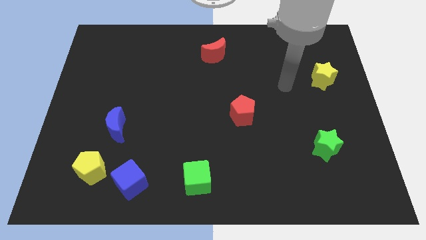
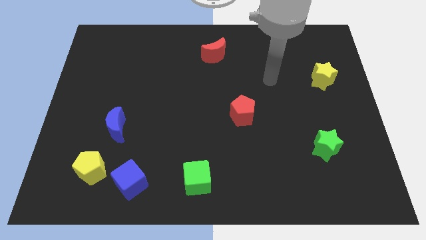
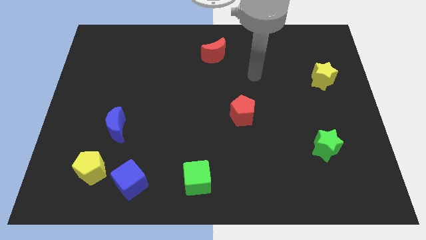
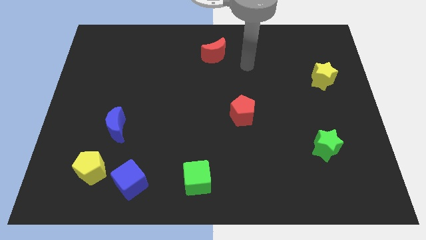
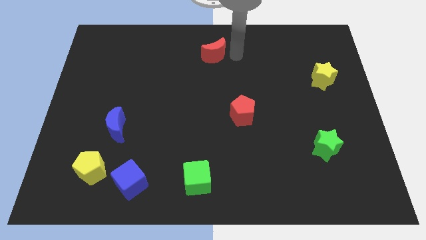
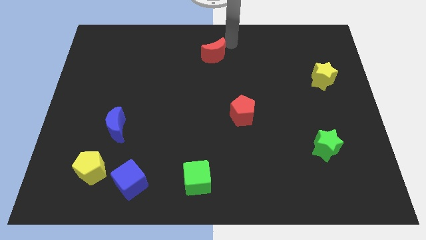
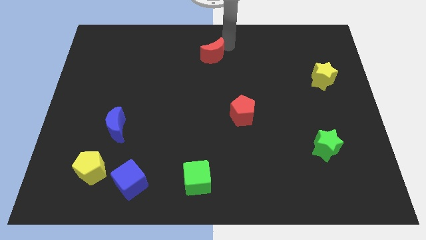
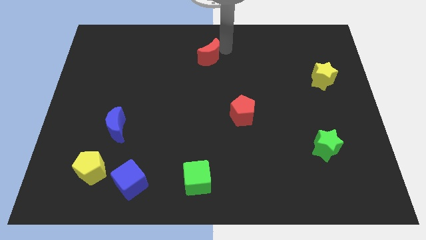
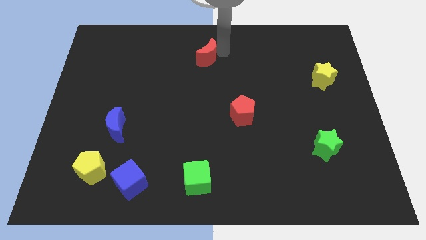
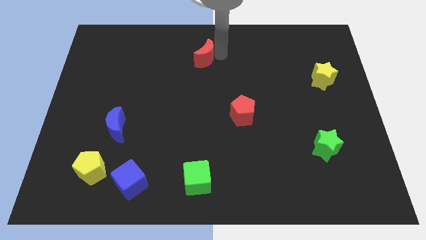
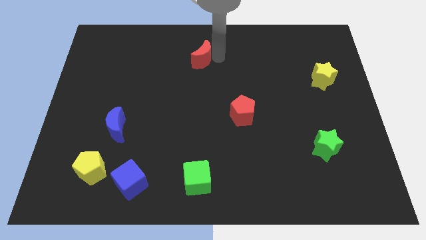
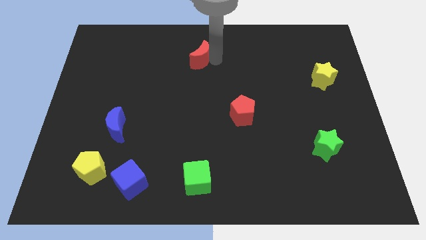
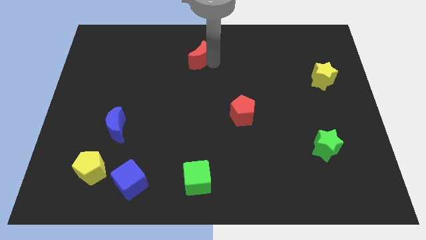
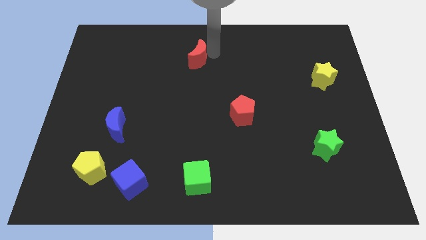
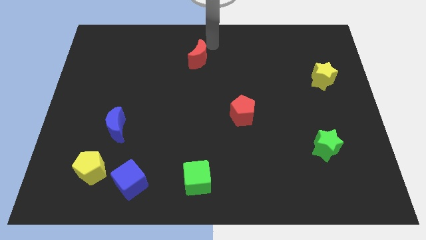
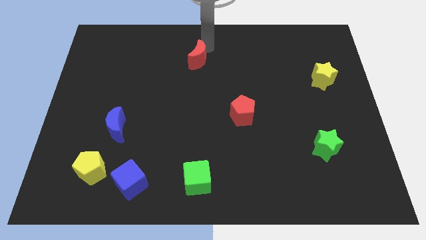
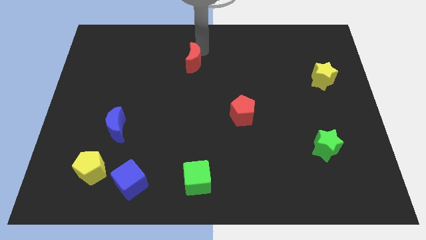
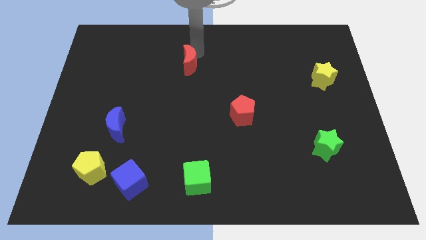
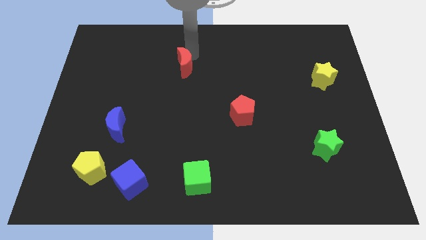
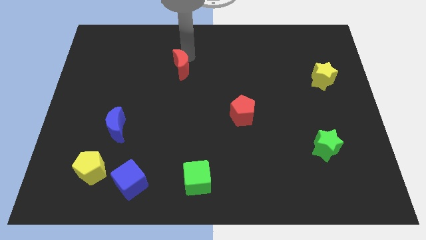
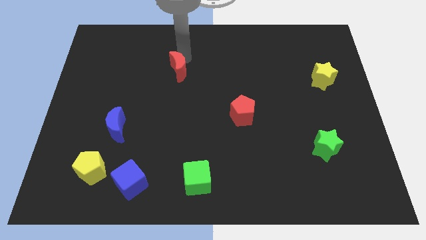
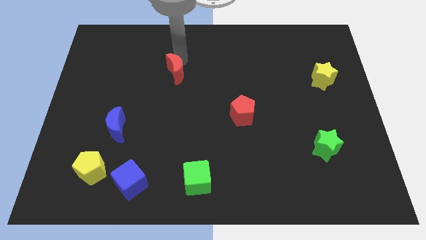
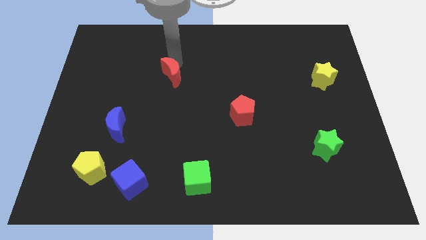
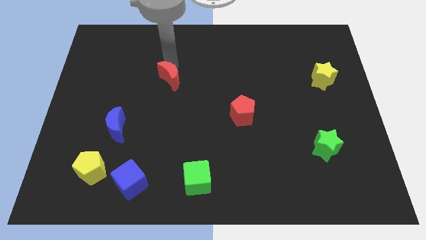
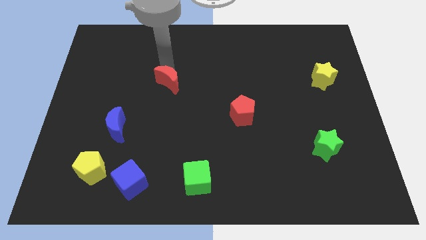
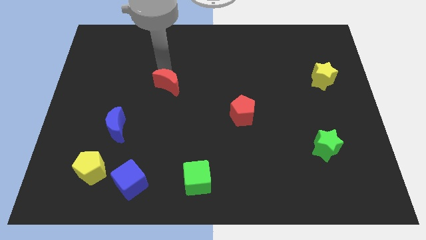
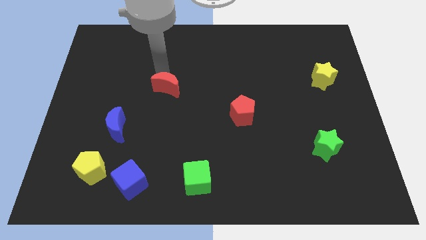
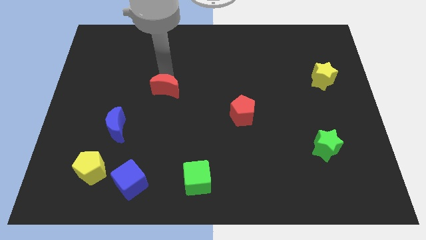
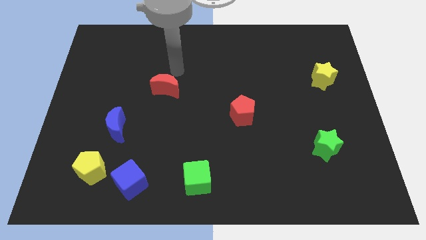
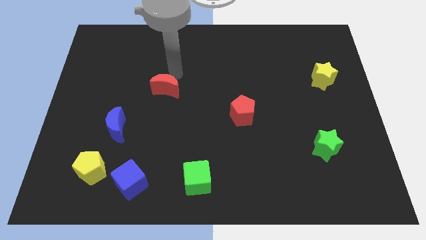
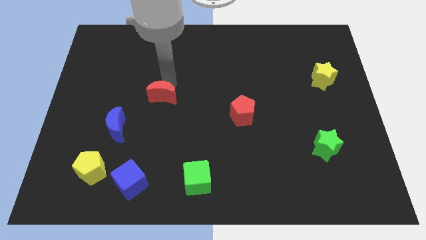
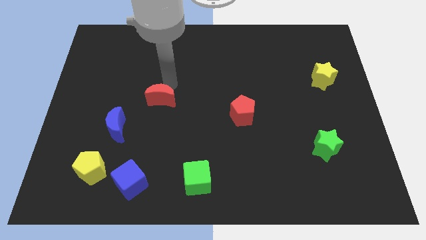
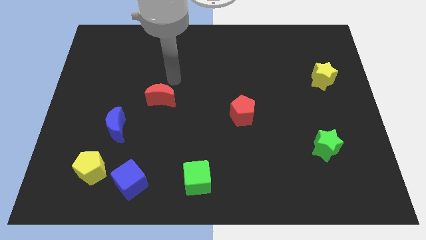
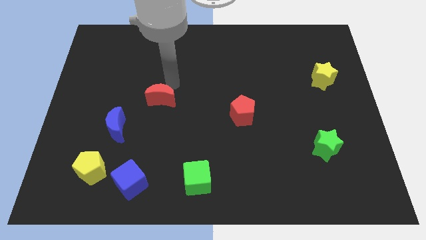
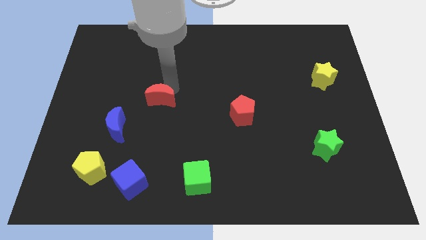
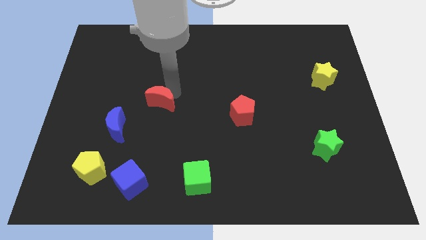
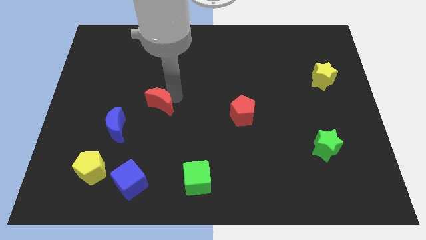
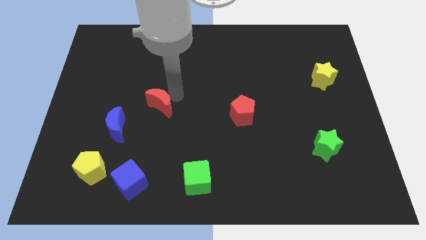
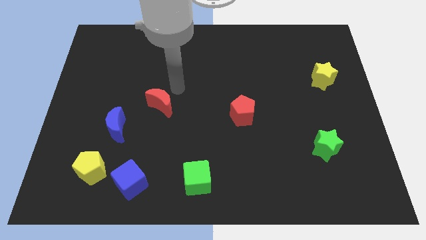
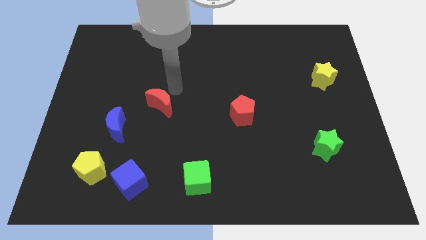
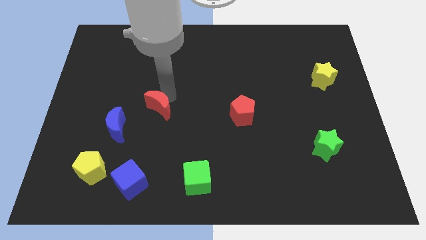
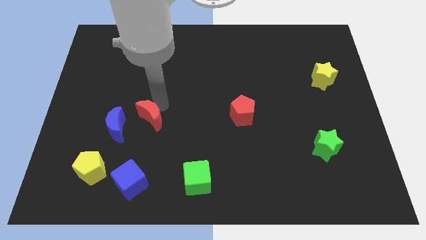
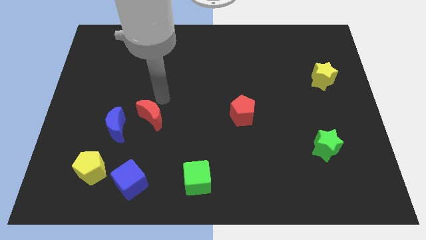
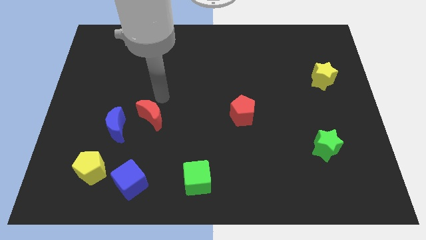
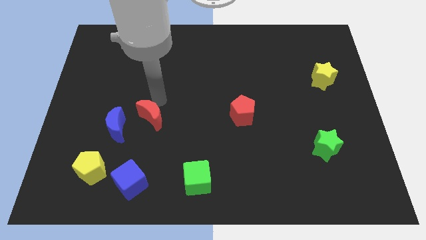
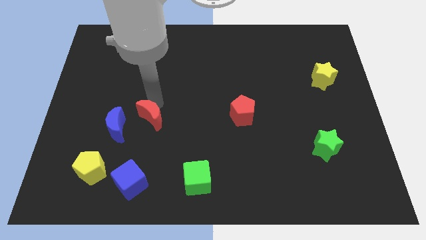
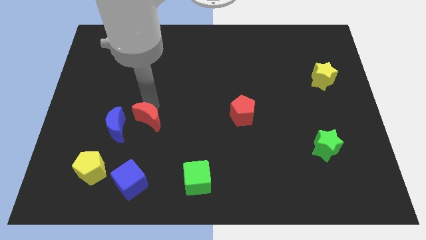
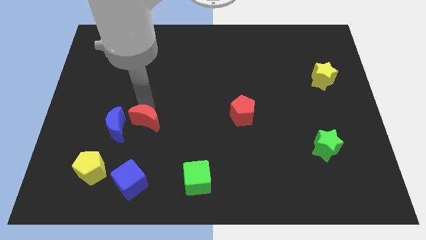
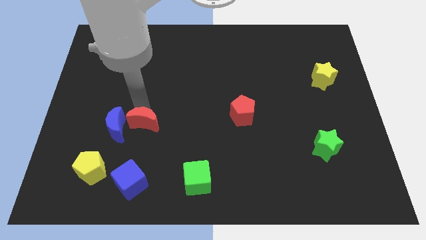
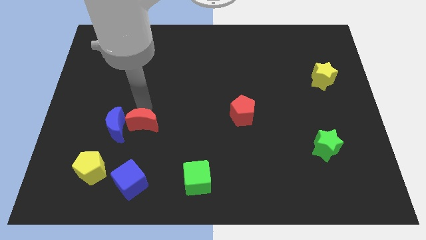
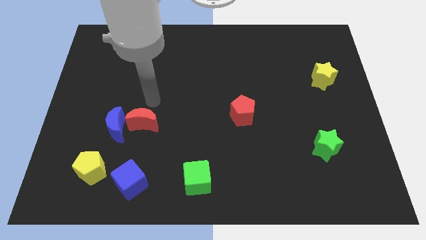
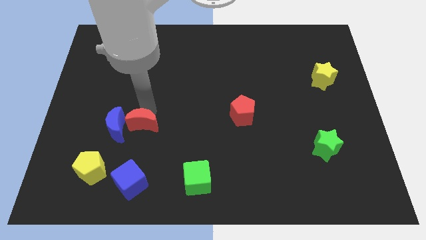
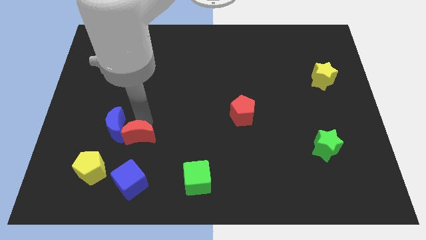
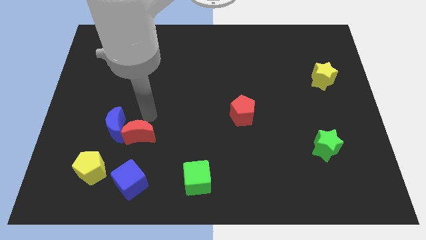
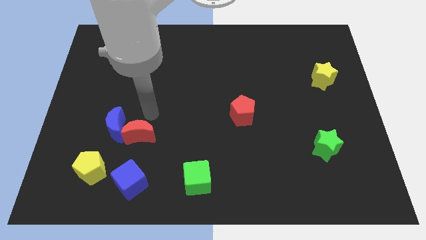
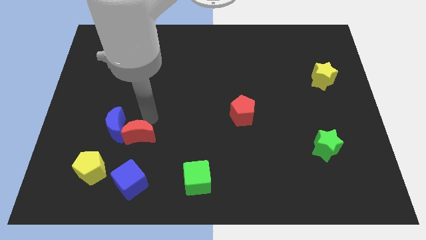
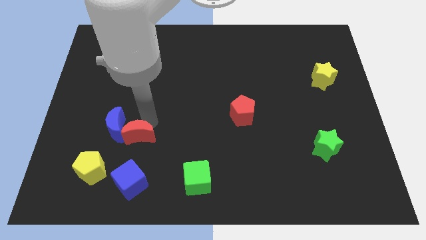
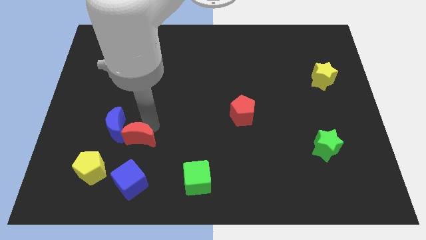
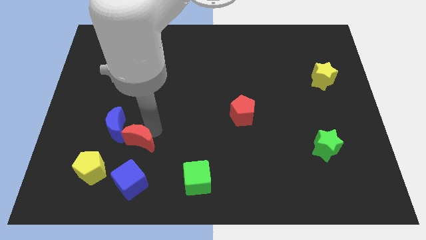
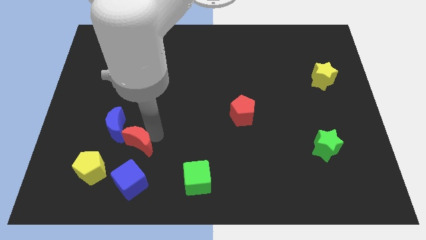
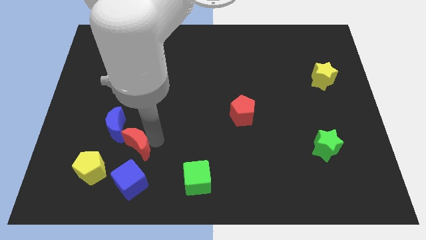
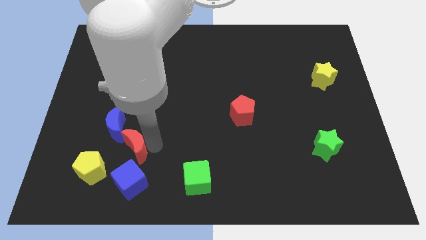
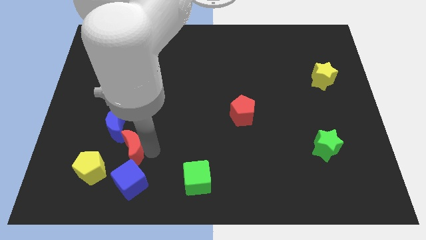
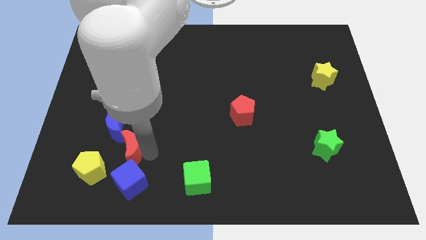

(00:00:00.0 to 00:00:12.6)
push the red moon diagonally up and to the left of the blue cube

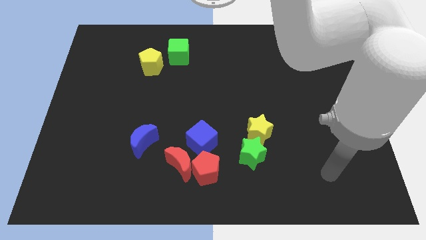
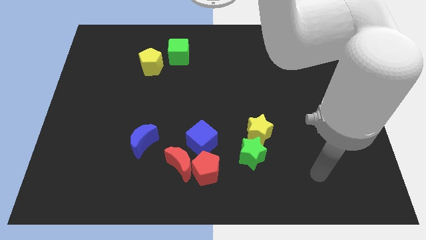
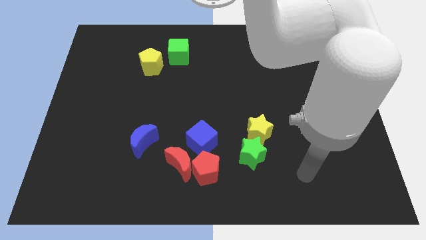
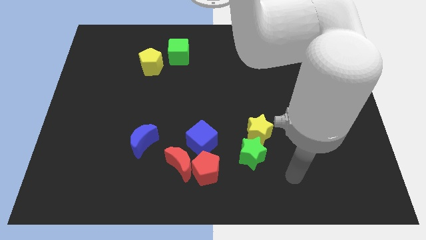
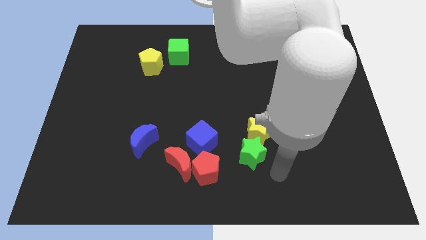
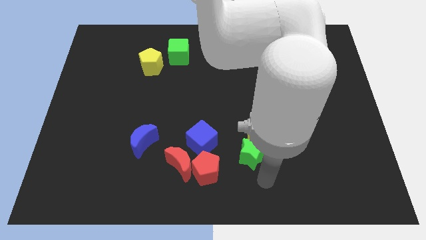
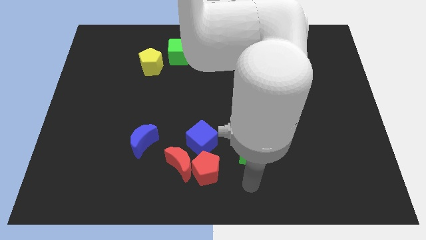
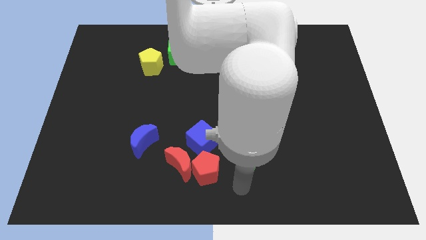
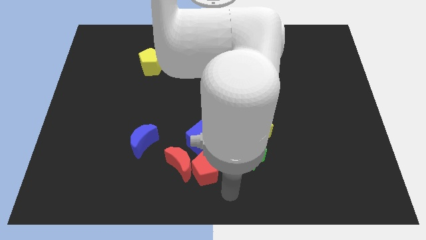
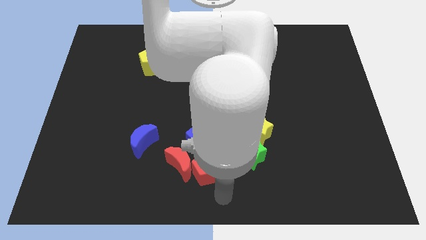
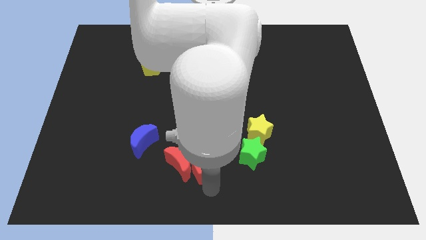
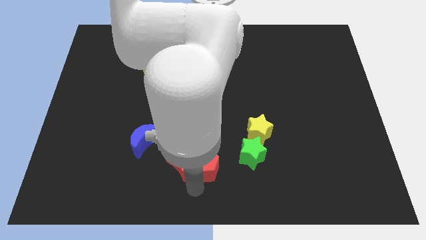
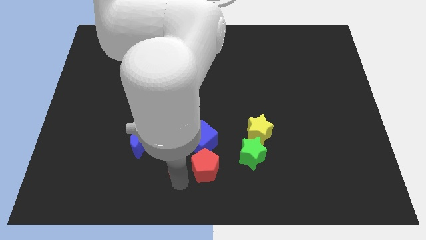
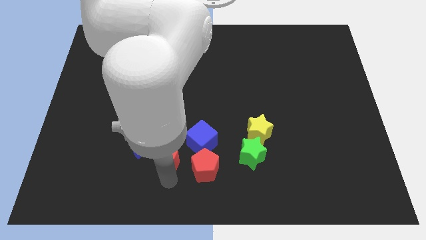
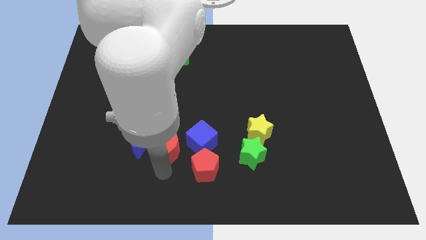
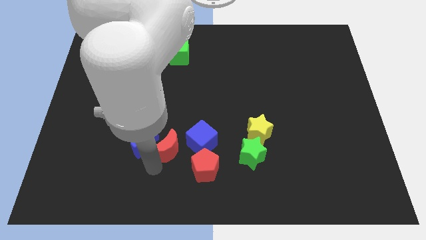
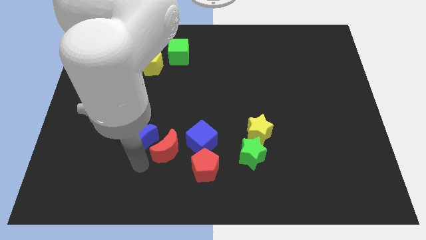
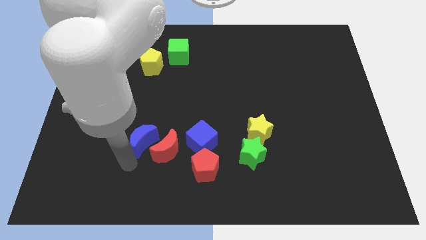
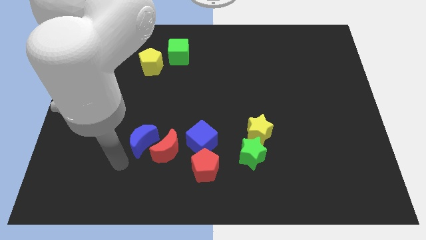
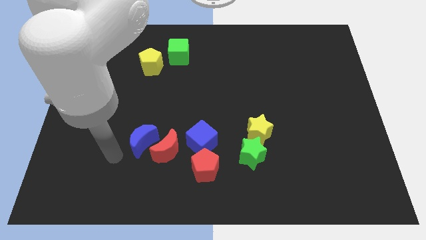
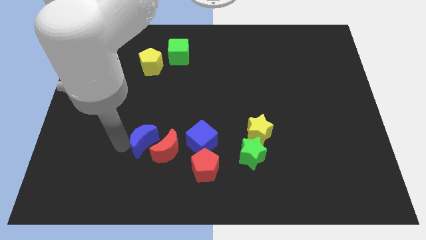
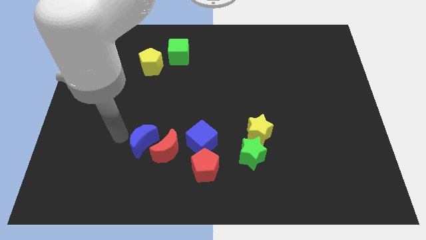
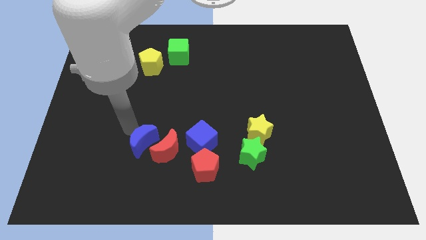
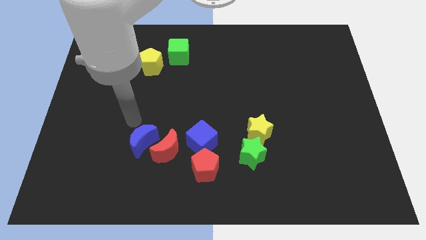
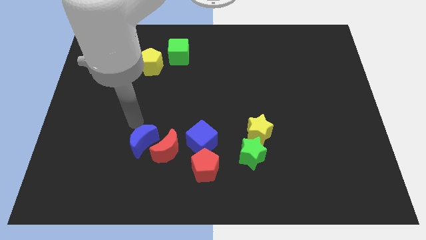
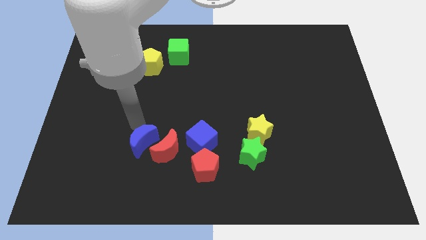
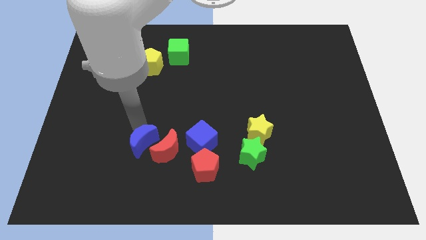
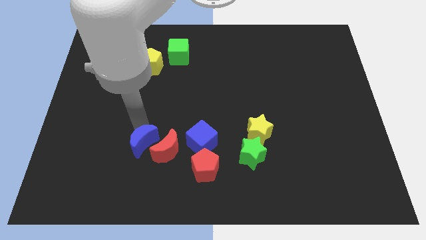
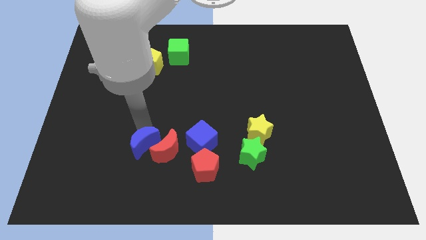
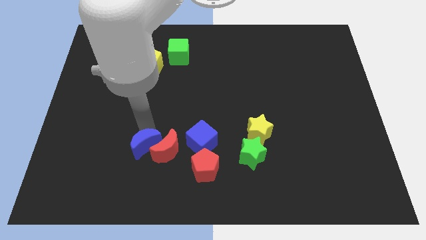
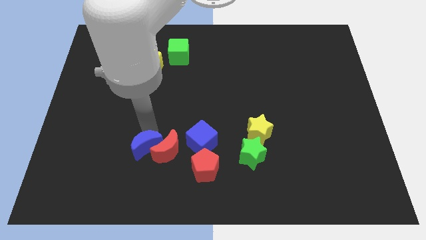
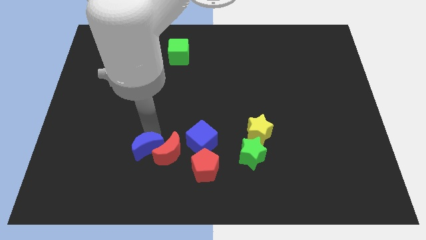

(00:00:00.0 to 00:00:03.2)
slide the blue moon just left of the red pentagon
